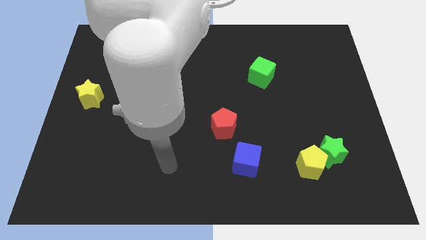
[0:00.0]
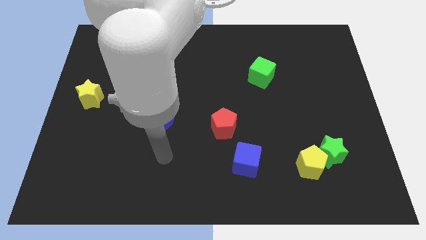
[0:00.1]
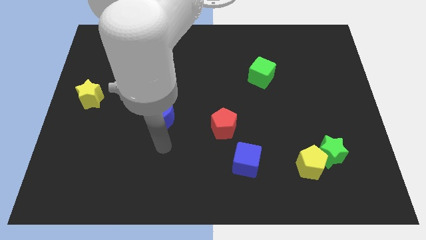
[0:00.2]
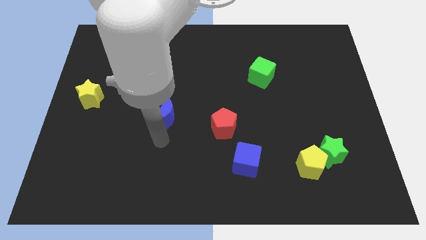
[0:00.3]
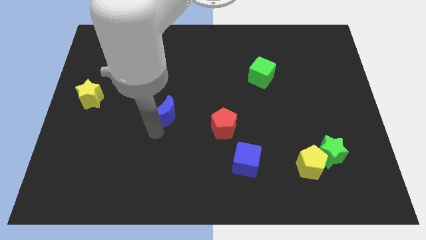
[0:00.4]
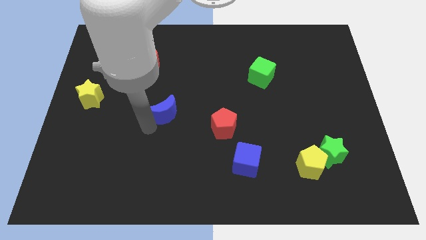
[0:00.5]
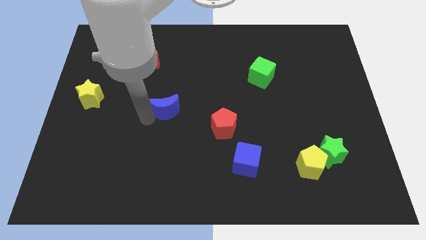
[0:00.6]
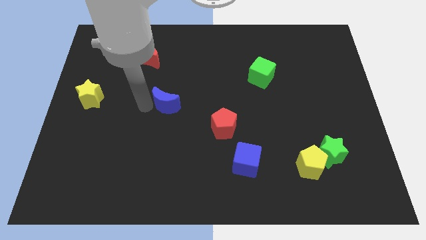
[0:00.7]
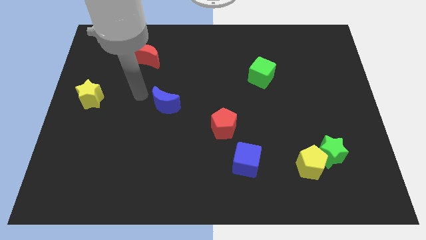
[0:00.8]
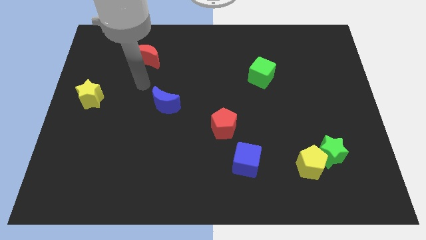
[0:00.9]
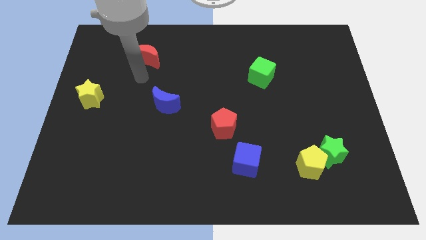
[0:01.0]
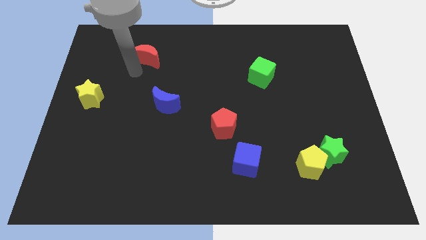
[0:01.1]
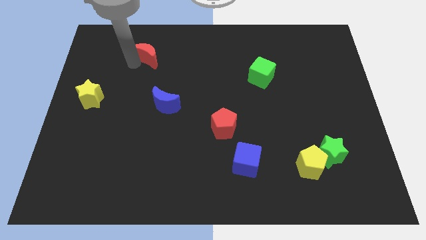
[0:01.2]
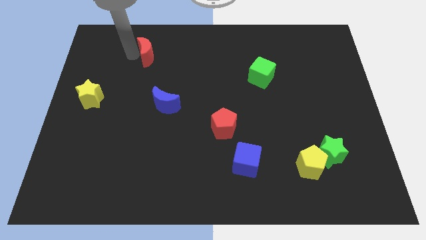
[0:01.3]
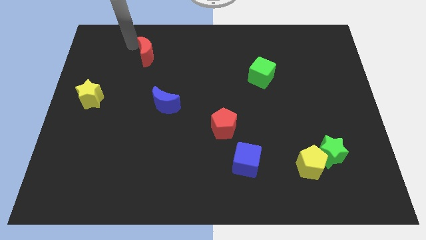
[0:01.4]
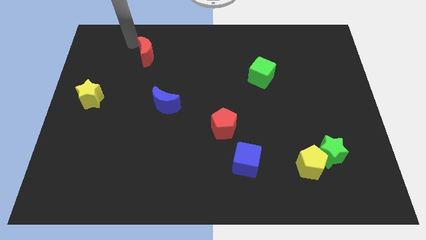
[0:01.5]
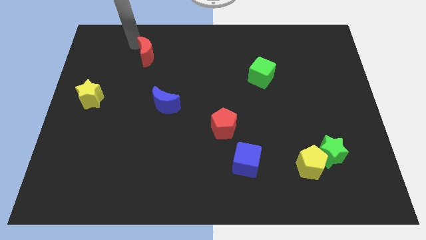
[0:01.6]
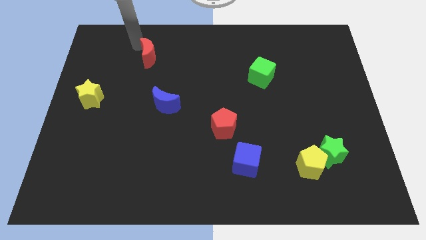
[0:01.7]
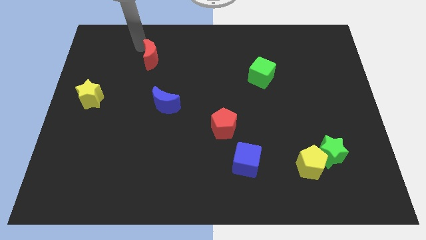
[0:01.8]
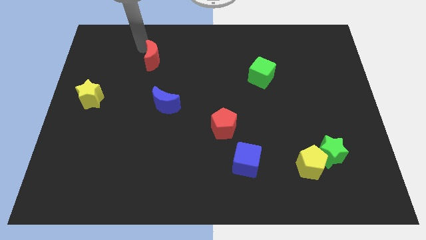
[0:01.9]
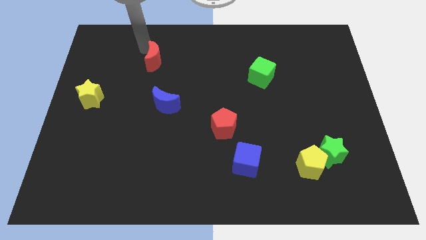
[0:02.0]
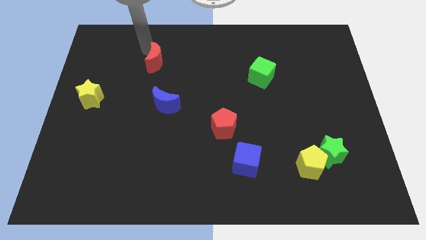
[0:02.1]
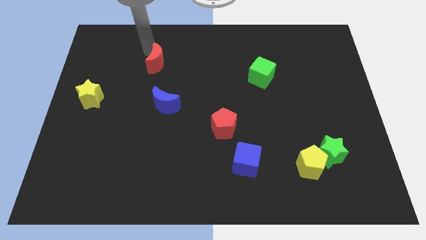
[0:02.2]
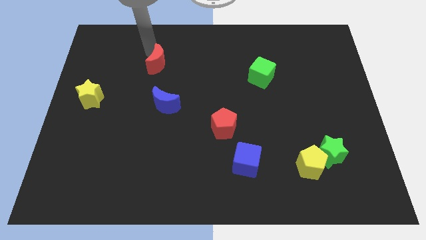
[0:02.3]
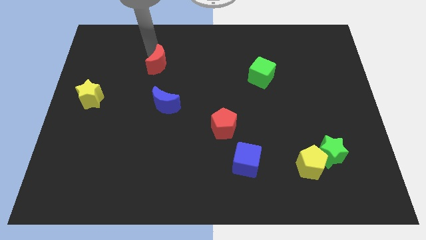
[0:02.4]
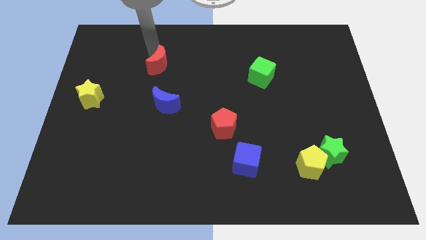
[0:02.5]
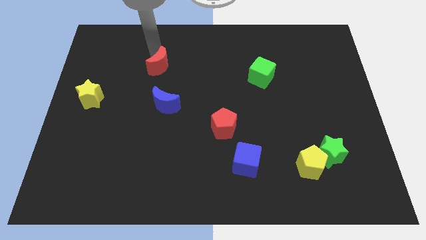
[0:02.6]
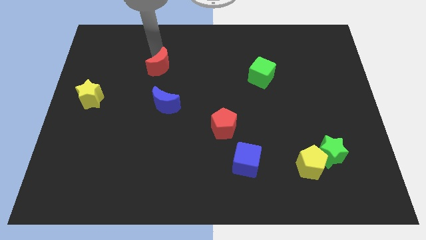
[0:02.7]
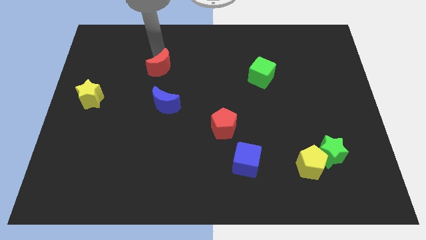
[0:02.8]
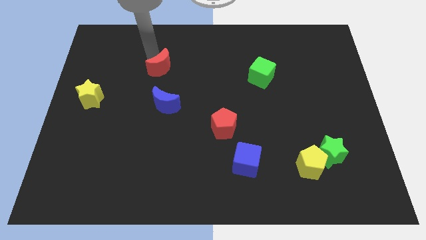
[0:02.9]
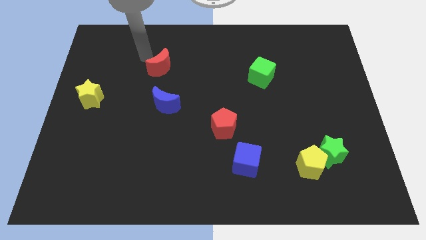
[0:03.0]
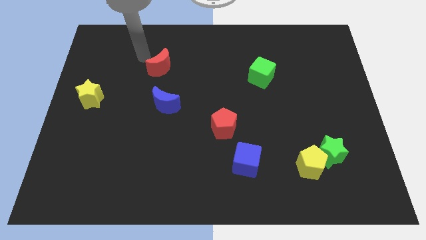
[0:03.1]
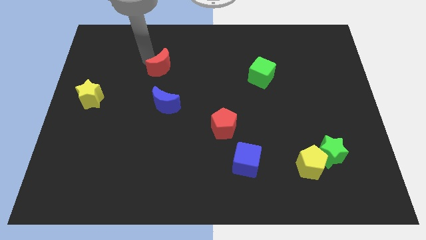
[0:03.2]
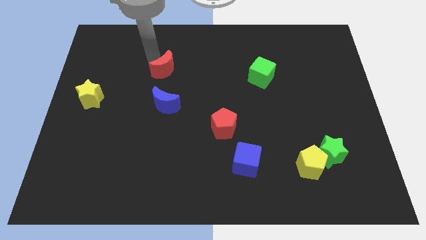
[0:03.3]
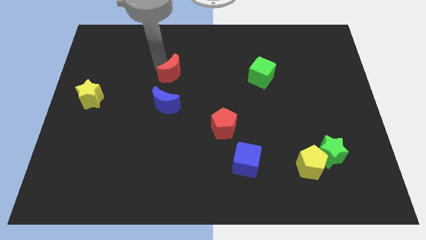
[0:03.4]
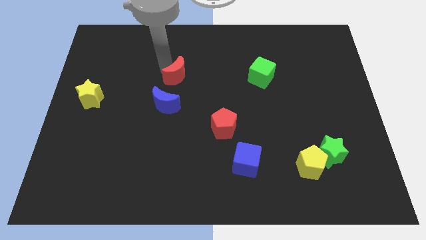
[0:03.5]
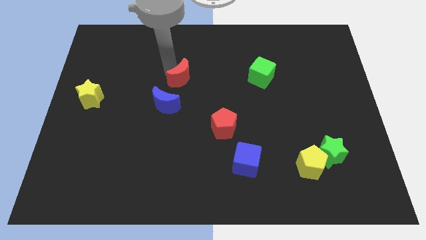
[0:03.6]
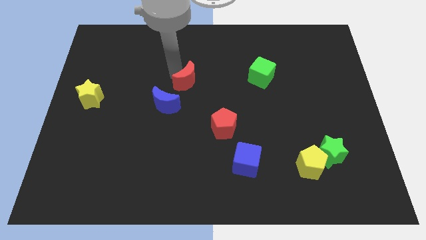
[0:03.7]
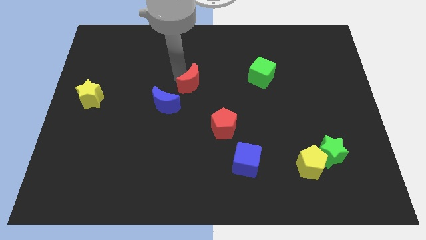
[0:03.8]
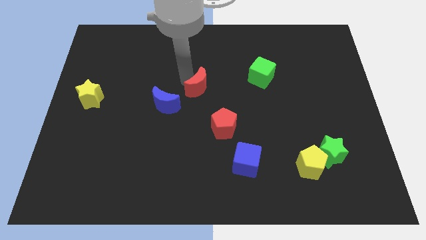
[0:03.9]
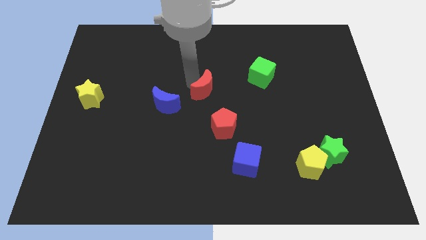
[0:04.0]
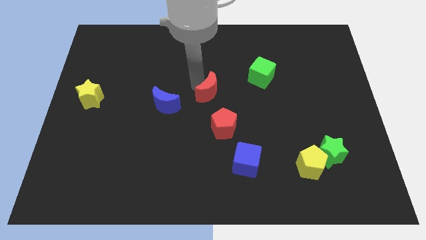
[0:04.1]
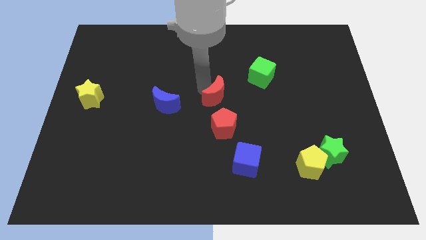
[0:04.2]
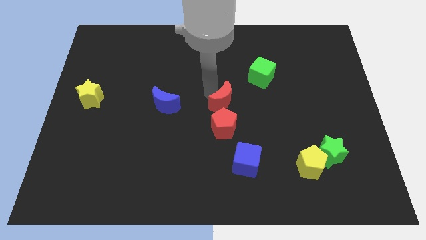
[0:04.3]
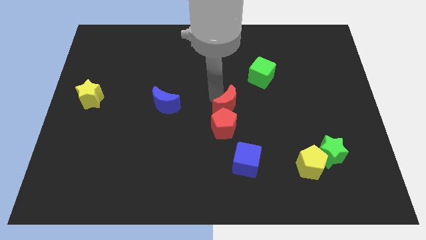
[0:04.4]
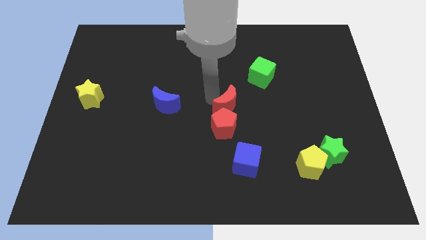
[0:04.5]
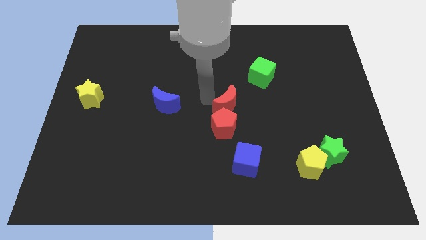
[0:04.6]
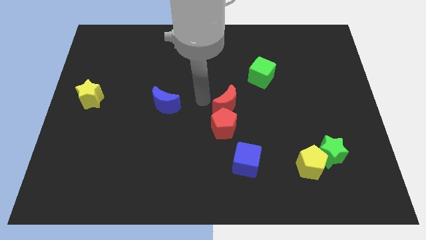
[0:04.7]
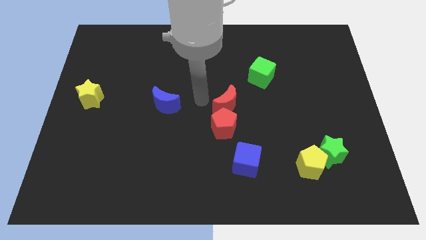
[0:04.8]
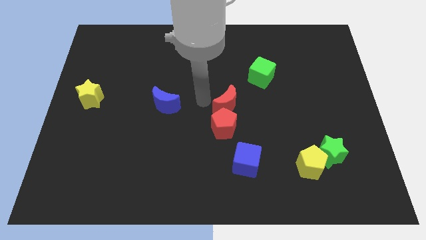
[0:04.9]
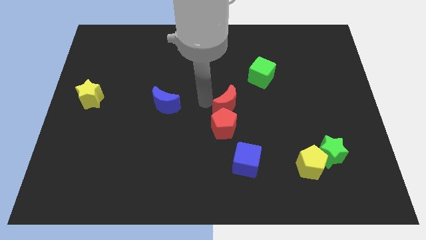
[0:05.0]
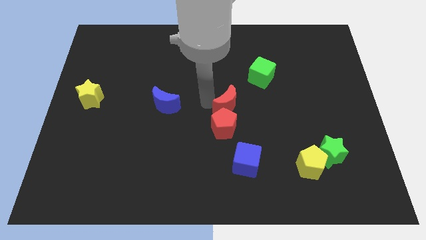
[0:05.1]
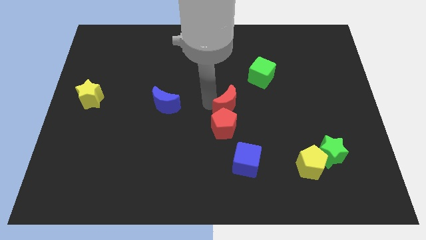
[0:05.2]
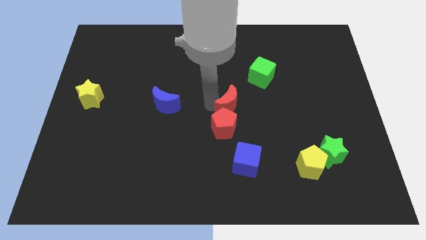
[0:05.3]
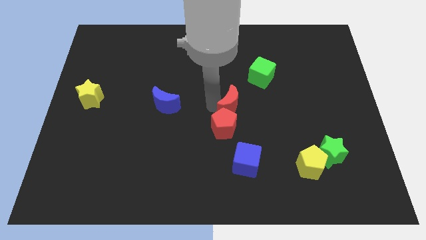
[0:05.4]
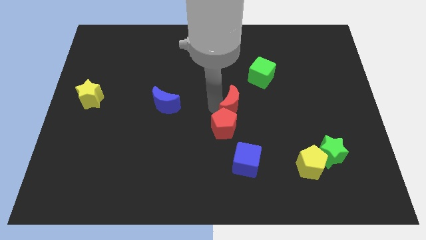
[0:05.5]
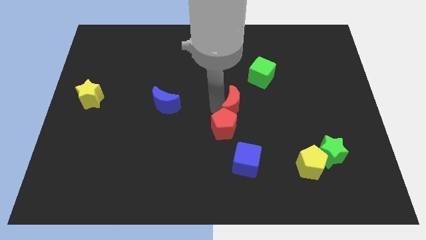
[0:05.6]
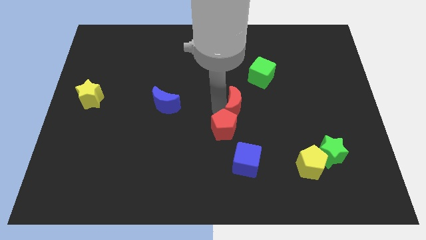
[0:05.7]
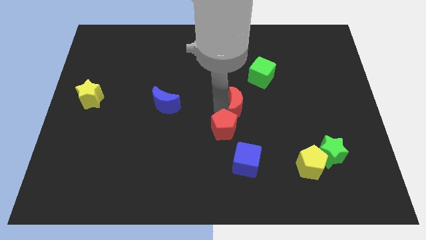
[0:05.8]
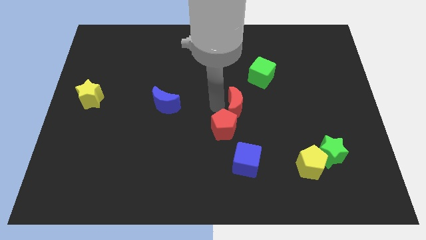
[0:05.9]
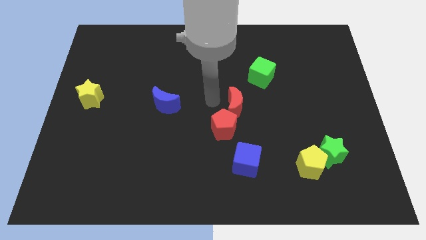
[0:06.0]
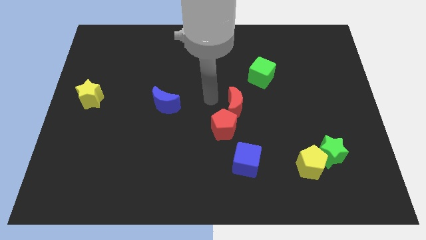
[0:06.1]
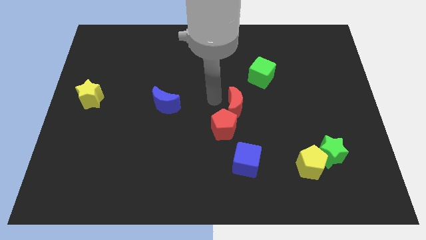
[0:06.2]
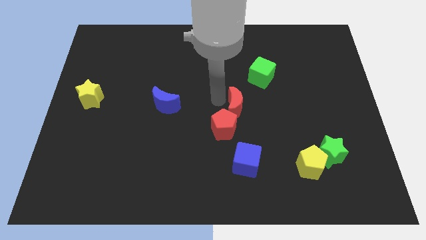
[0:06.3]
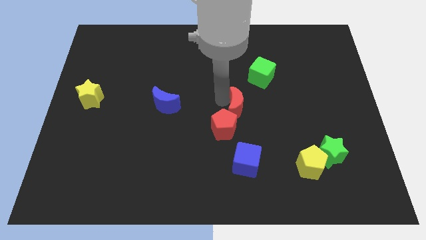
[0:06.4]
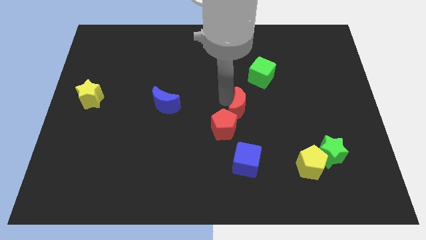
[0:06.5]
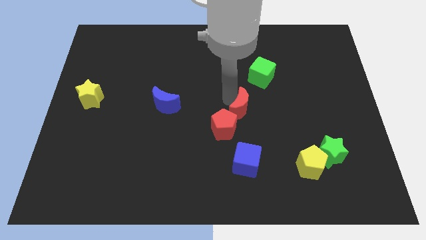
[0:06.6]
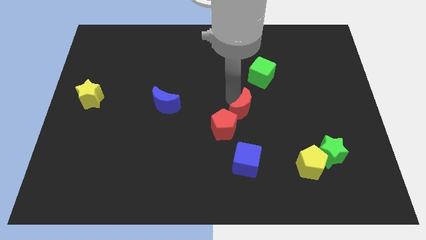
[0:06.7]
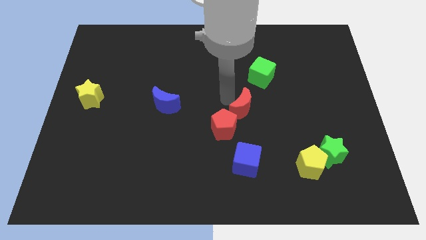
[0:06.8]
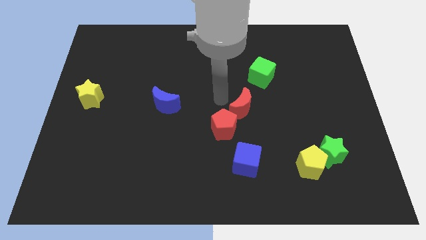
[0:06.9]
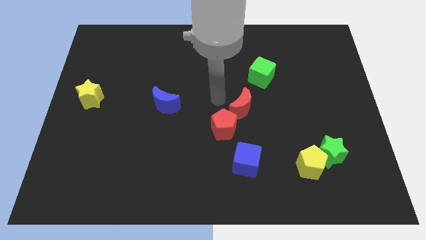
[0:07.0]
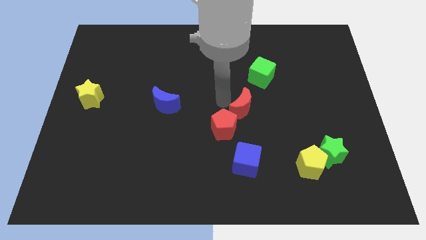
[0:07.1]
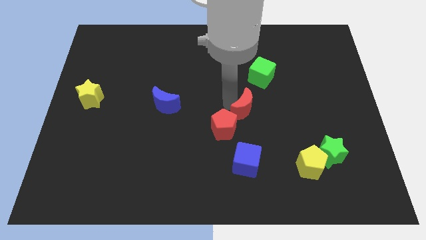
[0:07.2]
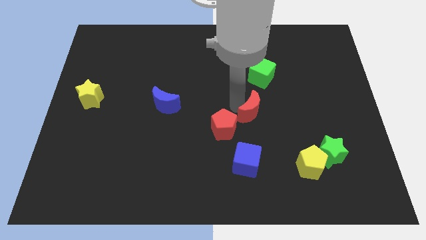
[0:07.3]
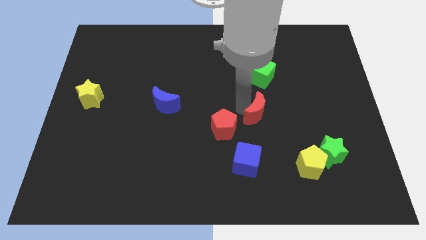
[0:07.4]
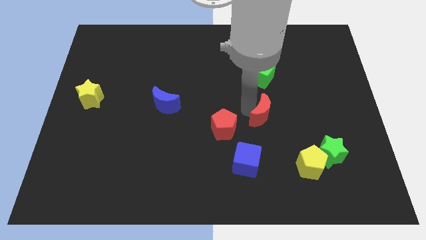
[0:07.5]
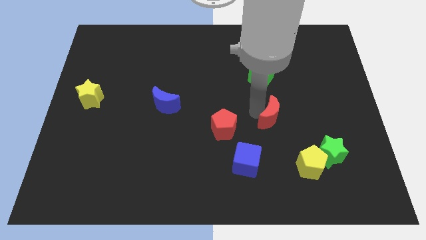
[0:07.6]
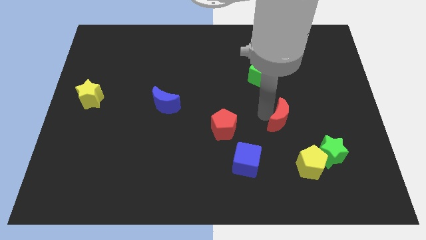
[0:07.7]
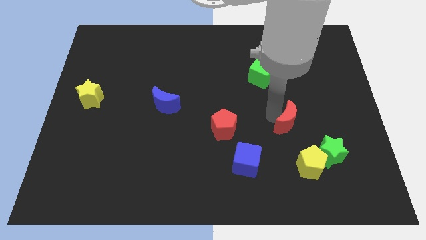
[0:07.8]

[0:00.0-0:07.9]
push the red moon diagonally up and to the left of the green star
